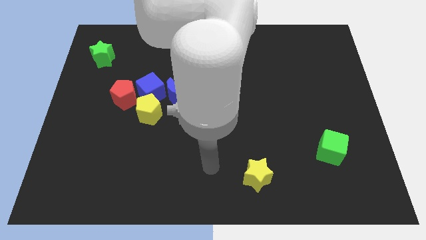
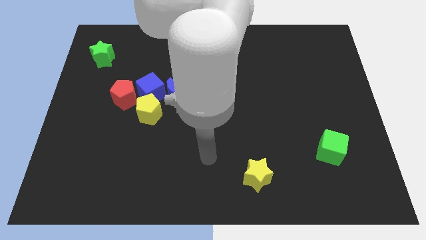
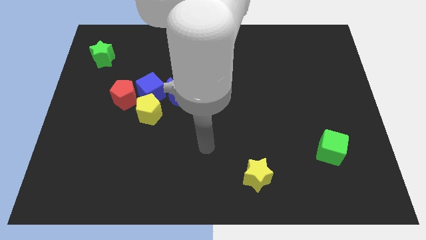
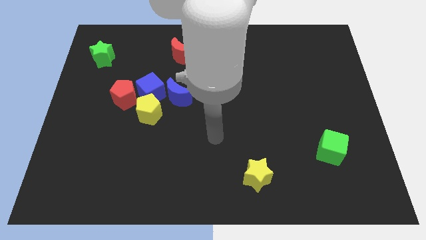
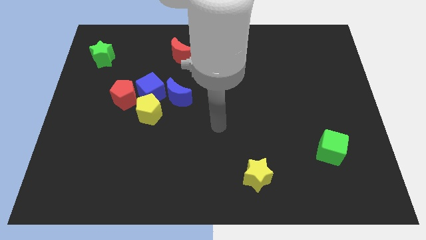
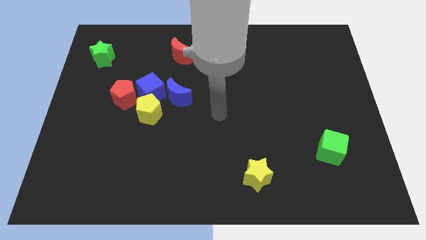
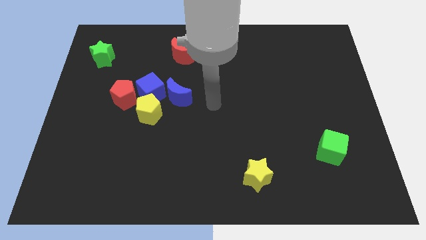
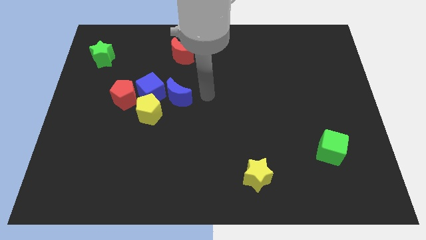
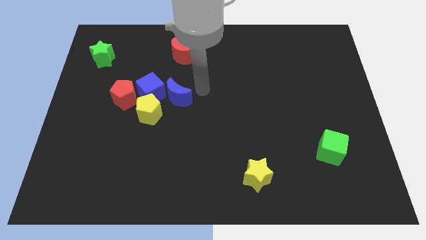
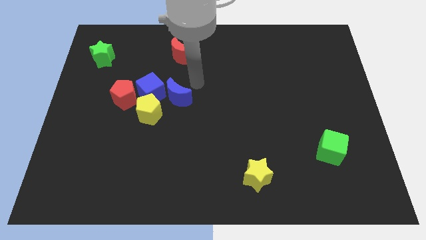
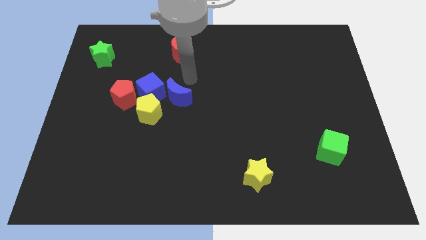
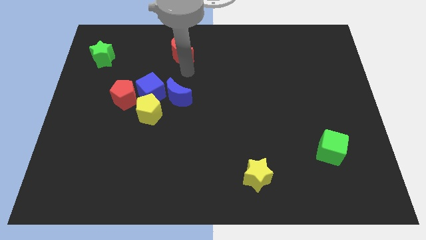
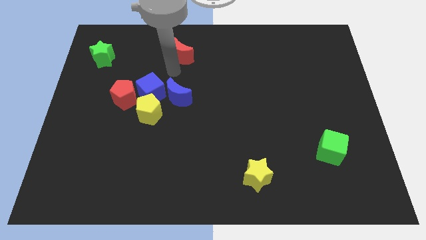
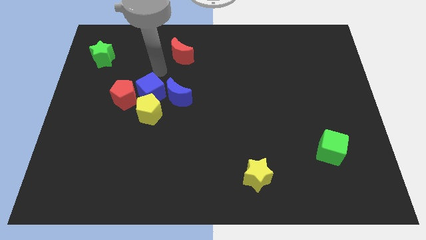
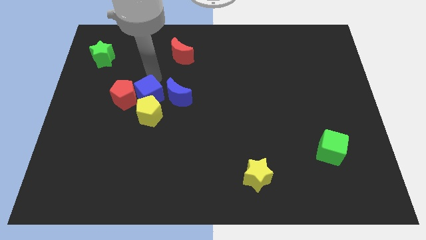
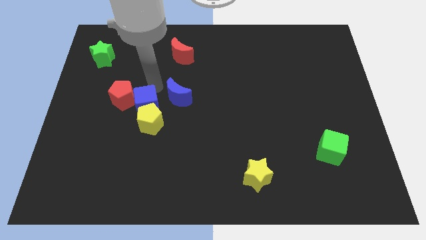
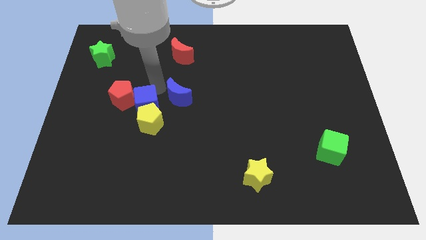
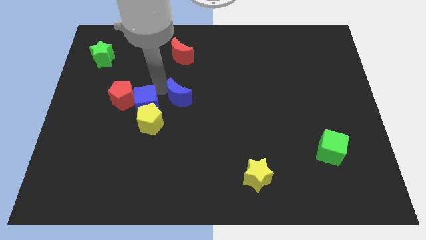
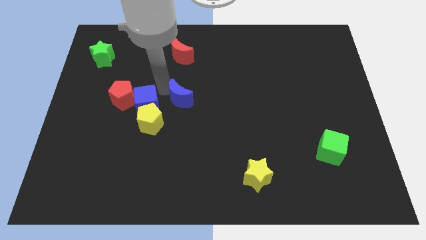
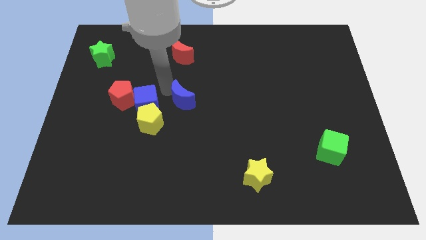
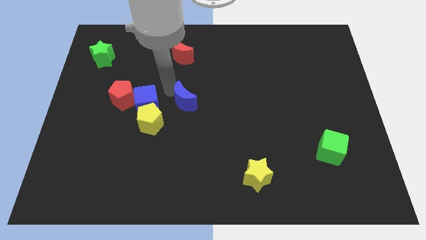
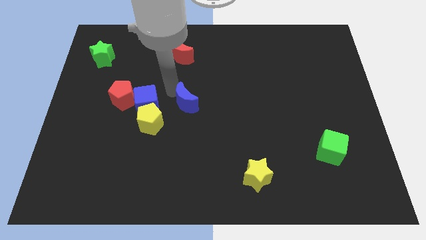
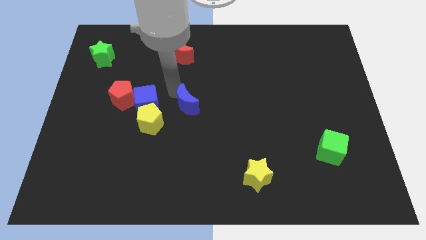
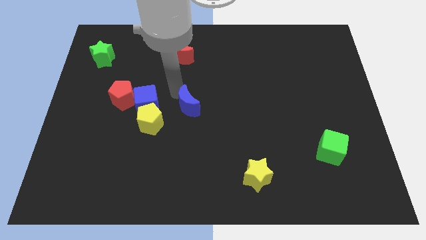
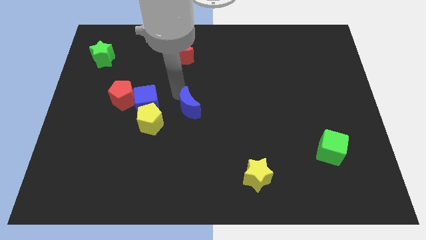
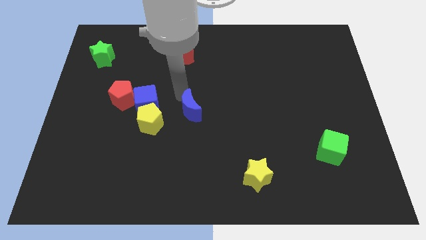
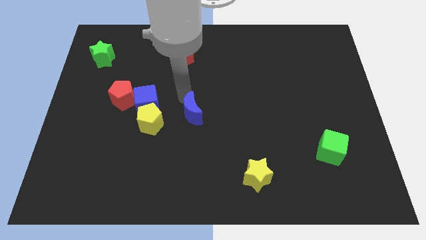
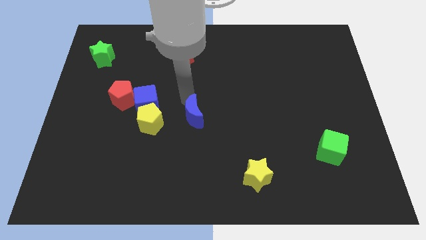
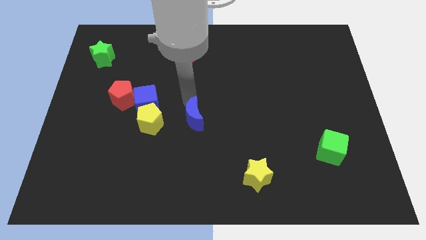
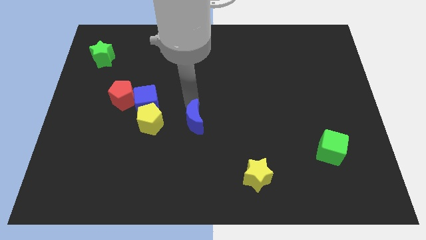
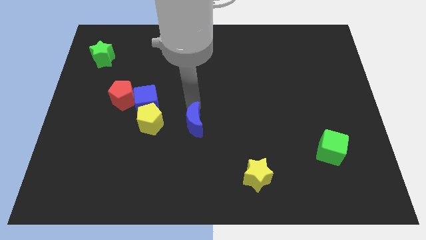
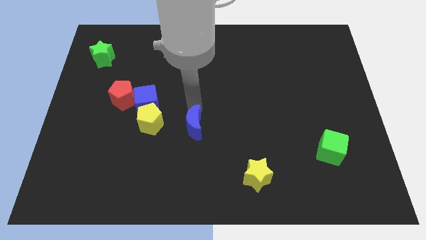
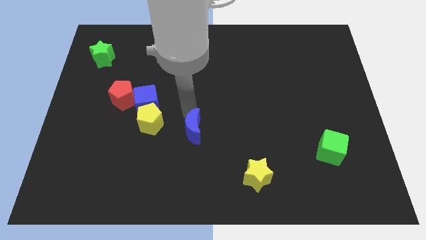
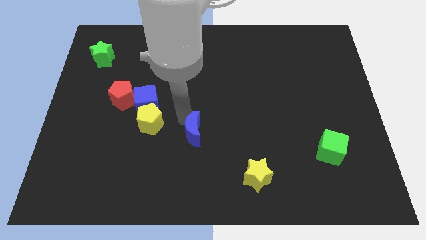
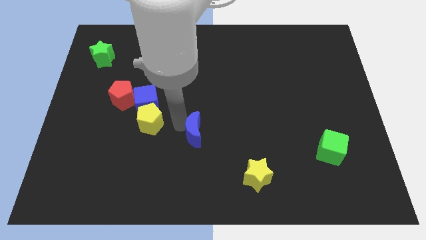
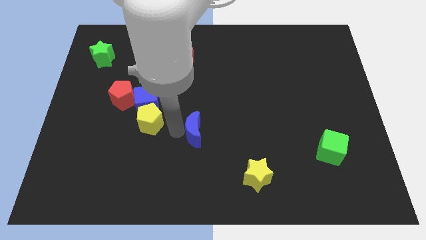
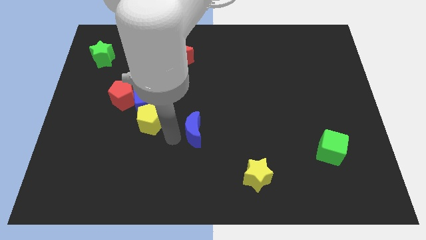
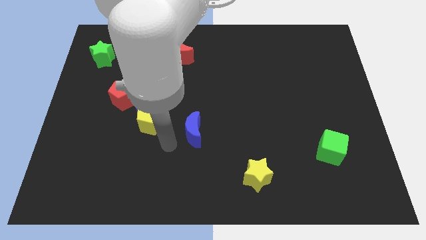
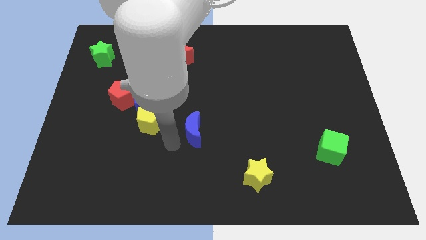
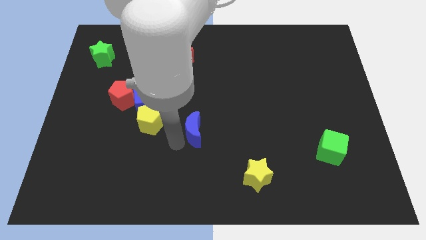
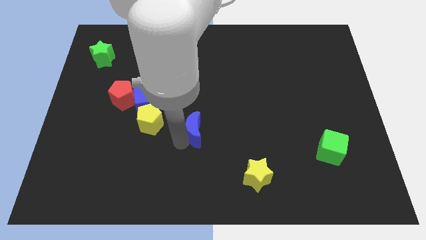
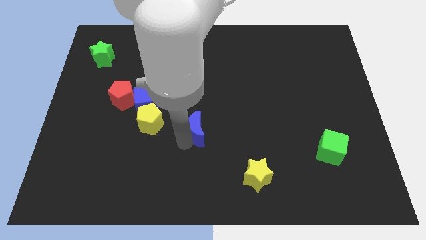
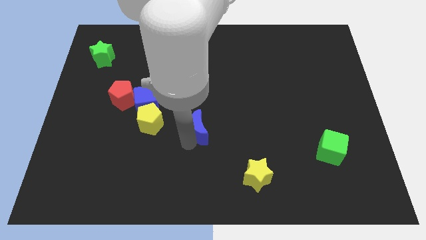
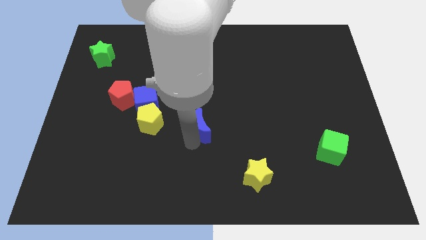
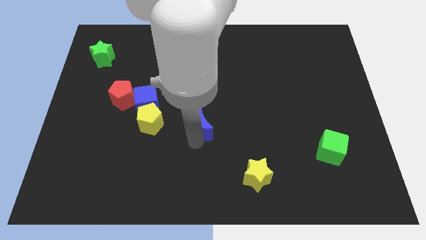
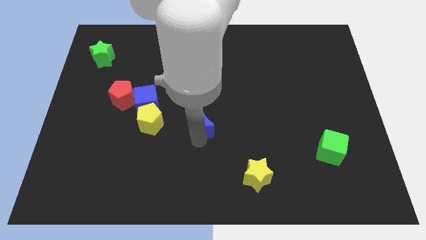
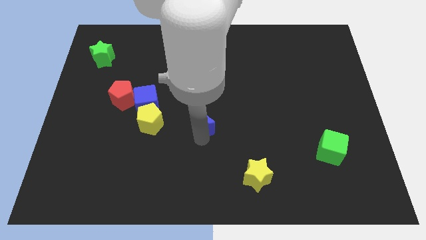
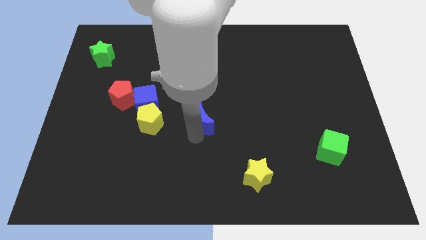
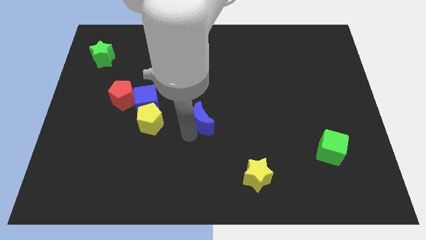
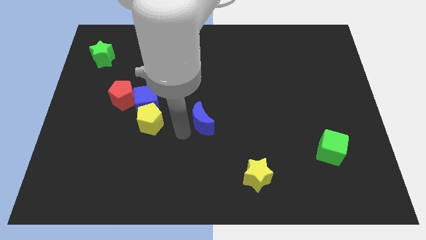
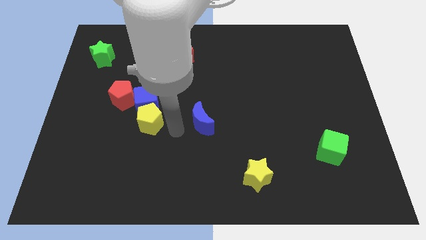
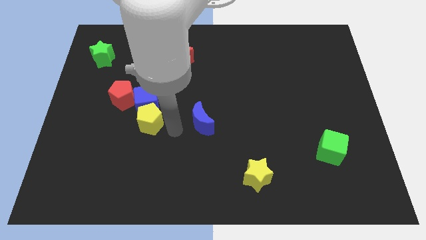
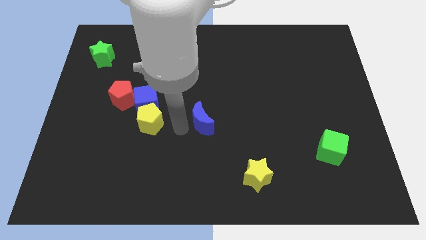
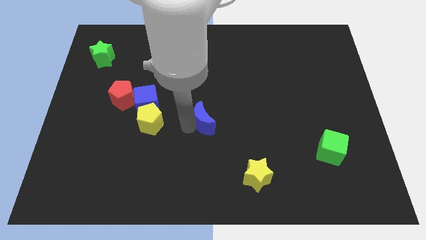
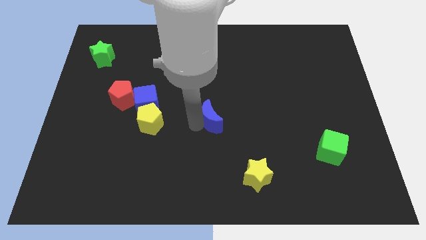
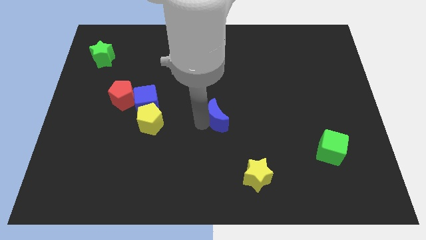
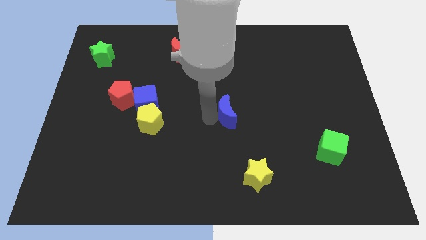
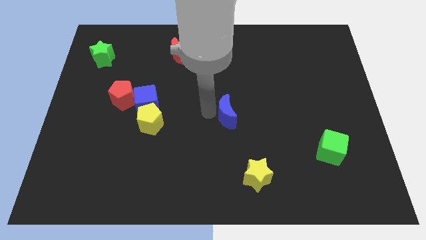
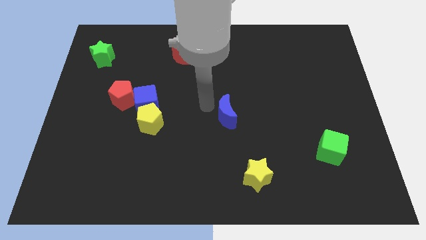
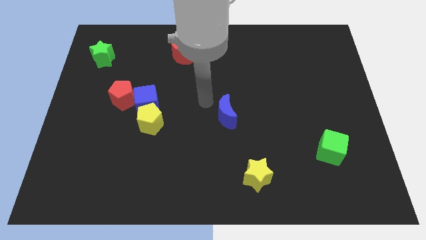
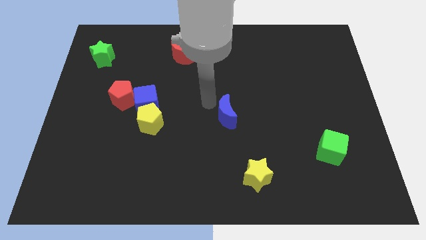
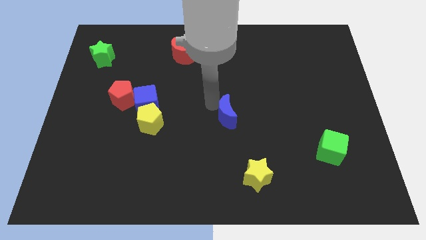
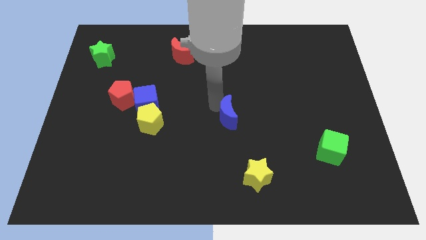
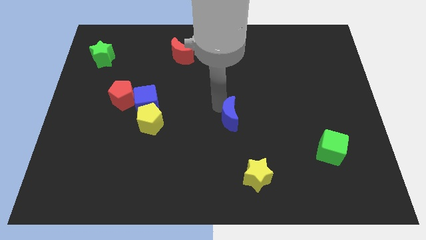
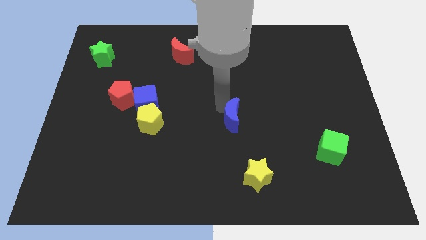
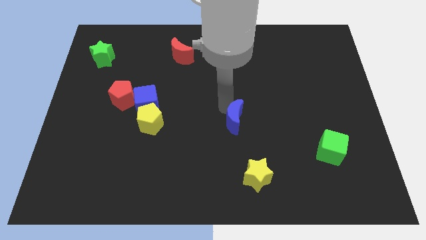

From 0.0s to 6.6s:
move the blue moon above the yellow star

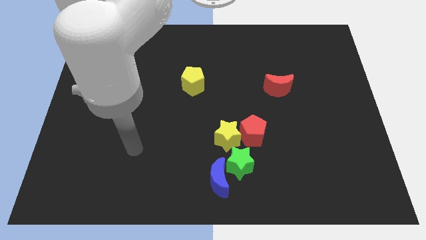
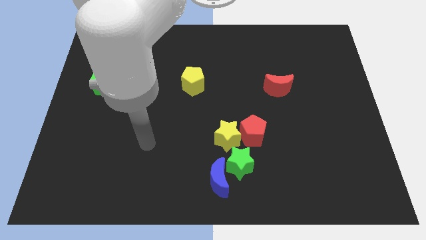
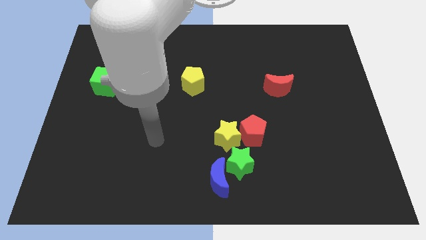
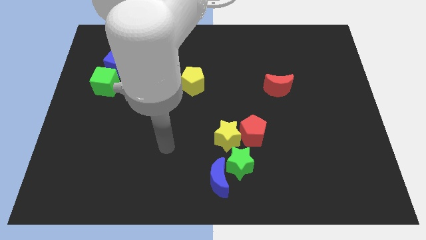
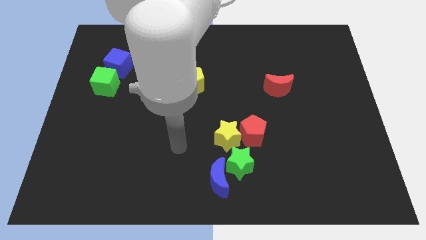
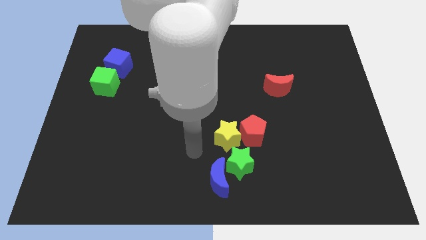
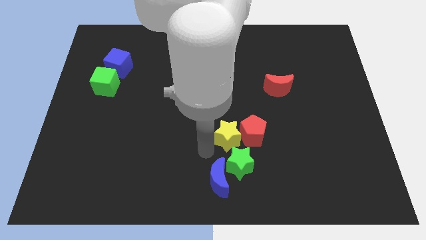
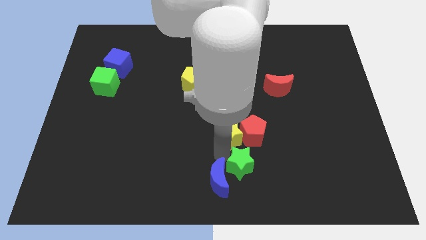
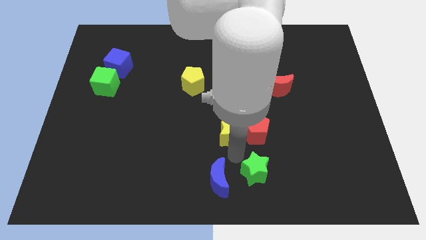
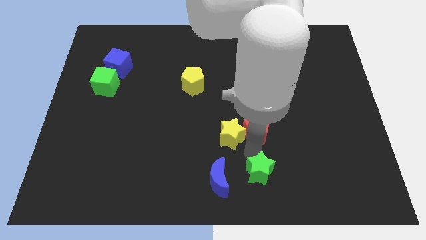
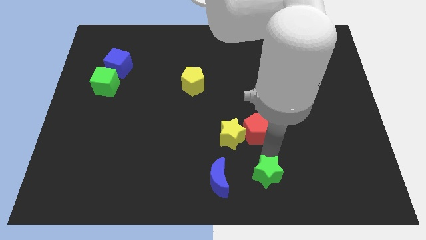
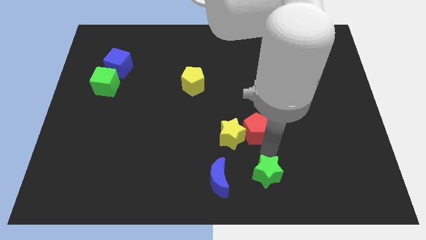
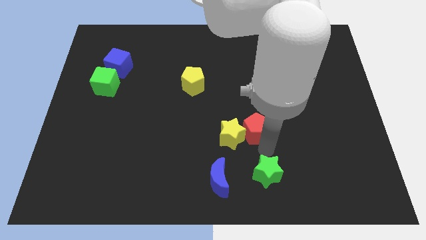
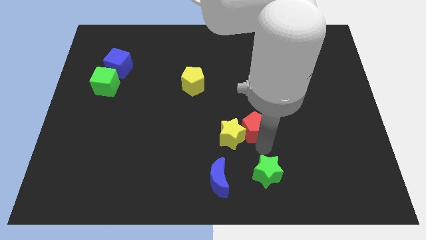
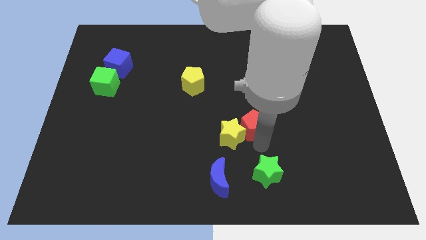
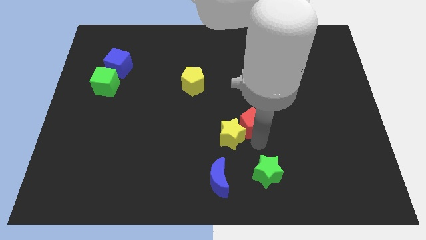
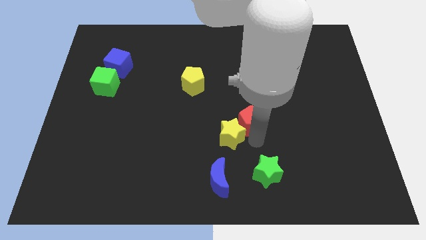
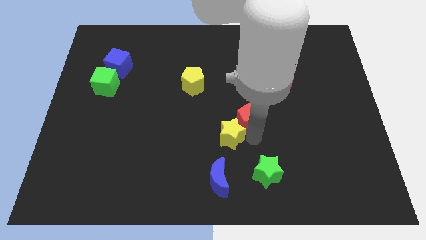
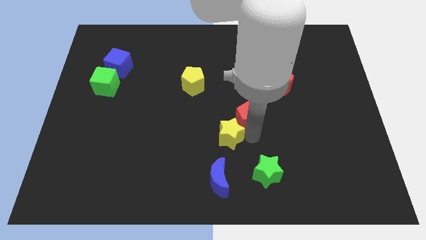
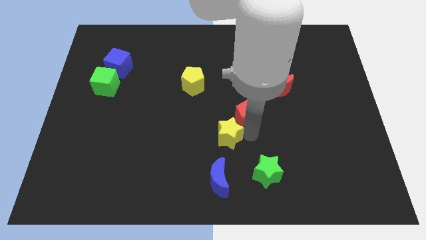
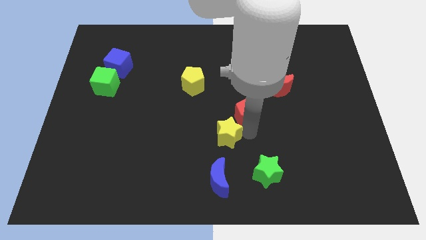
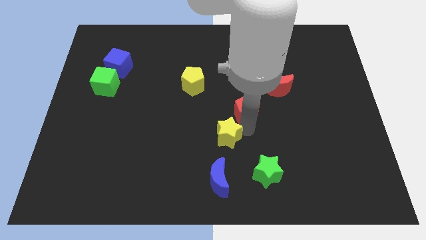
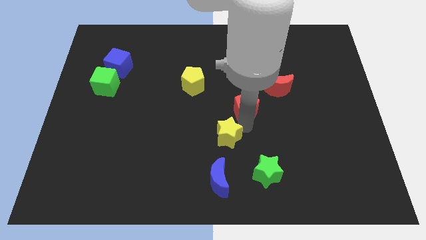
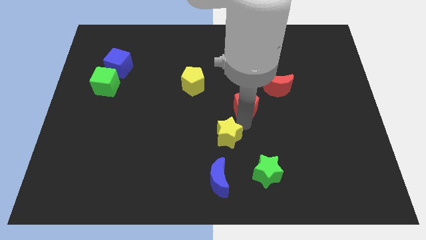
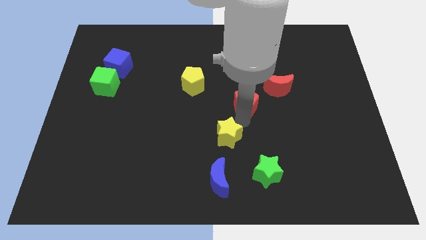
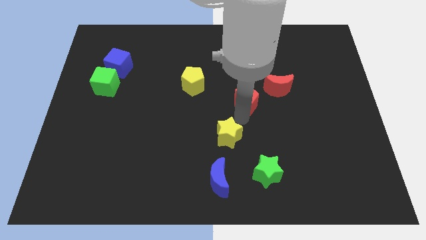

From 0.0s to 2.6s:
move the red pentagon to the left side of the red moon
